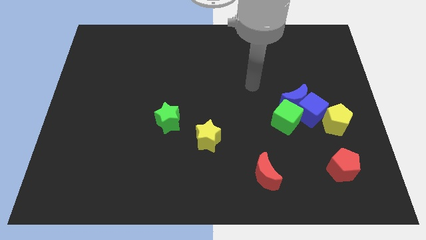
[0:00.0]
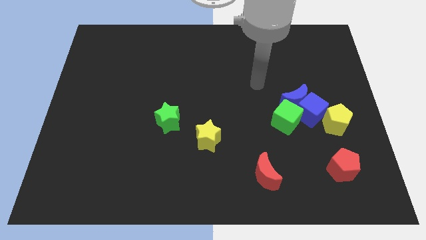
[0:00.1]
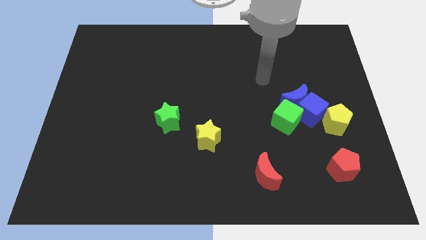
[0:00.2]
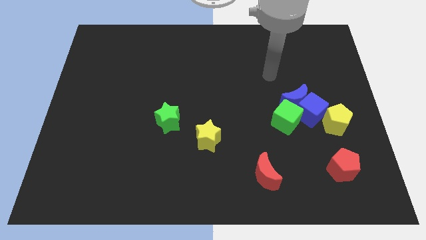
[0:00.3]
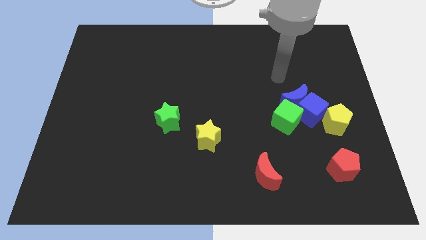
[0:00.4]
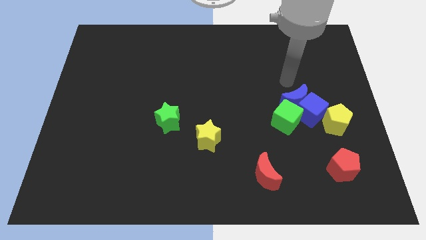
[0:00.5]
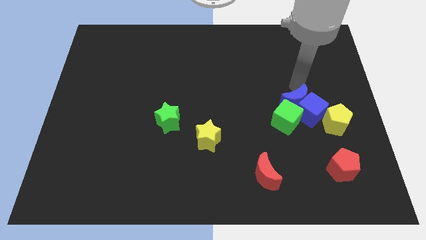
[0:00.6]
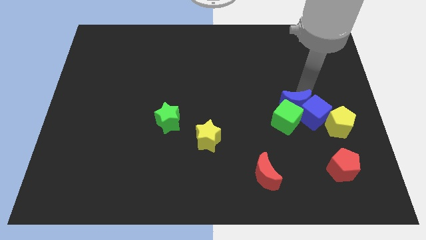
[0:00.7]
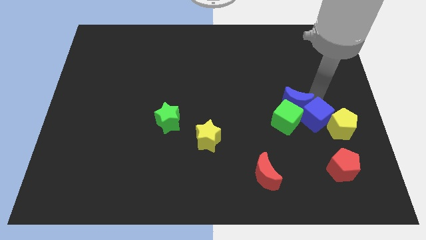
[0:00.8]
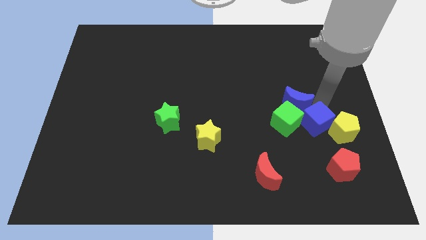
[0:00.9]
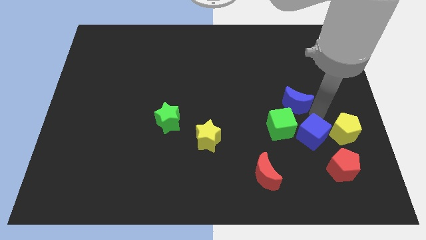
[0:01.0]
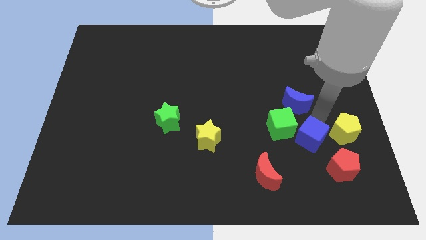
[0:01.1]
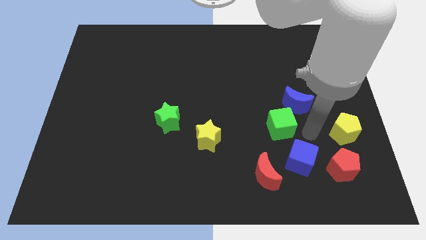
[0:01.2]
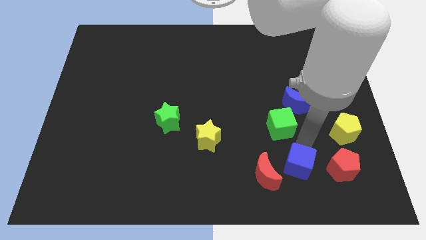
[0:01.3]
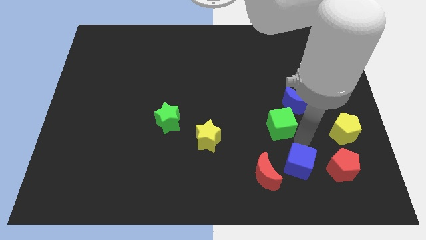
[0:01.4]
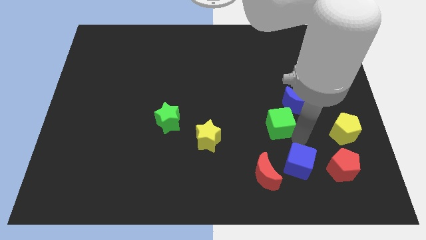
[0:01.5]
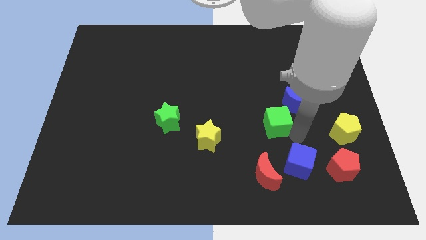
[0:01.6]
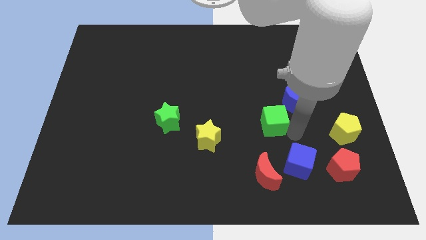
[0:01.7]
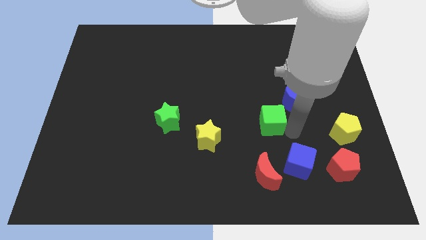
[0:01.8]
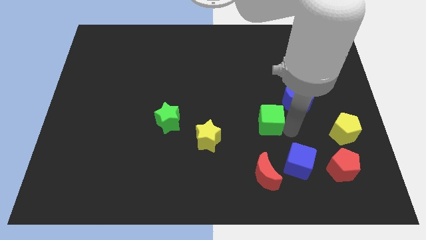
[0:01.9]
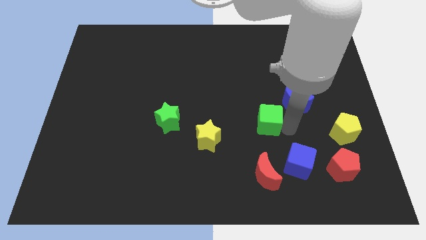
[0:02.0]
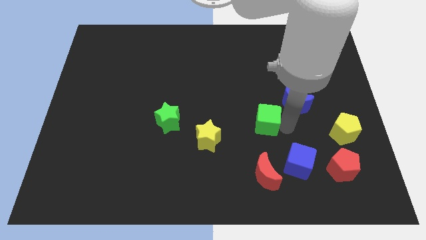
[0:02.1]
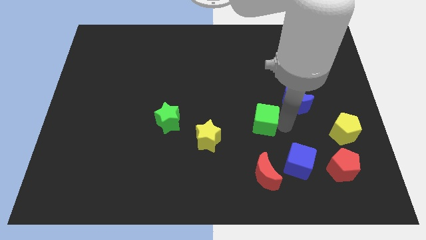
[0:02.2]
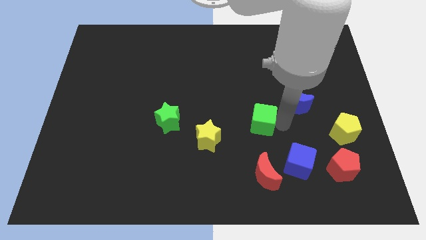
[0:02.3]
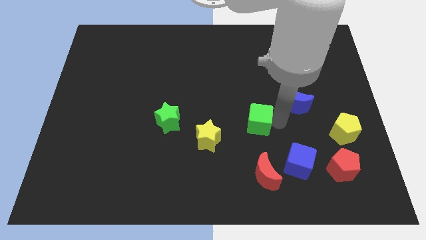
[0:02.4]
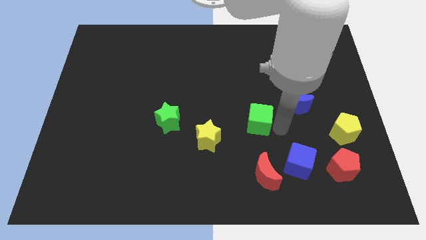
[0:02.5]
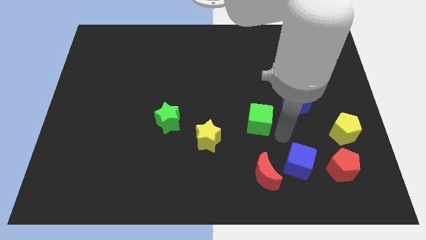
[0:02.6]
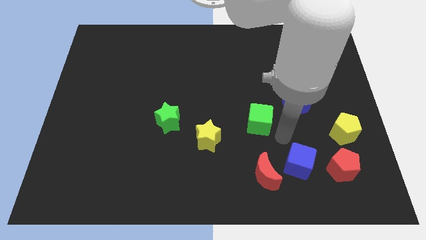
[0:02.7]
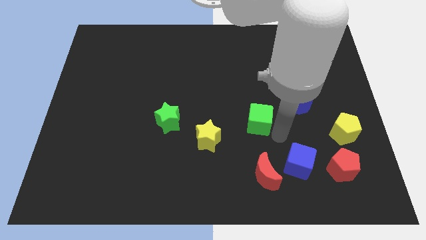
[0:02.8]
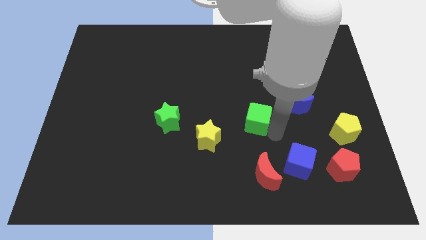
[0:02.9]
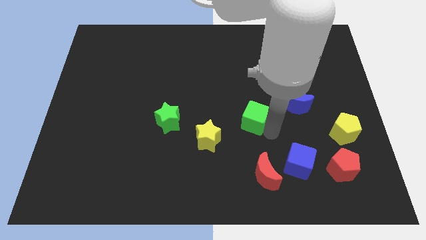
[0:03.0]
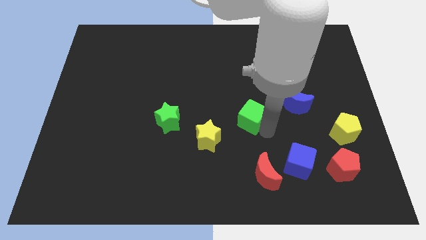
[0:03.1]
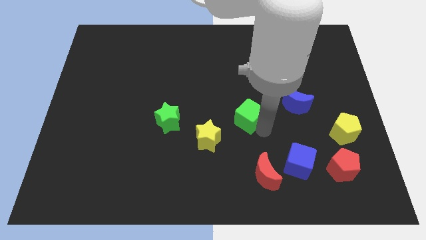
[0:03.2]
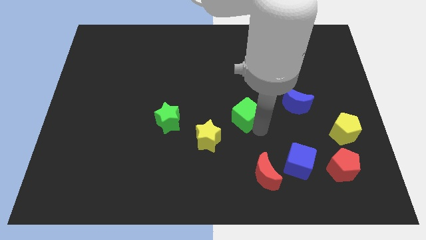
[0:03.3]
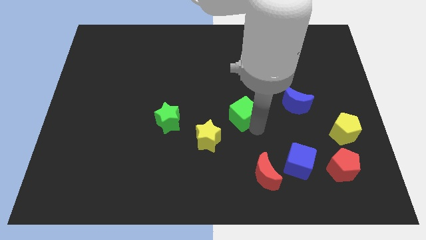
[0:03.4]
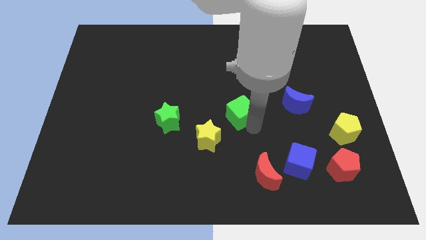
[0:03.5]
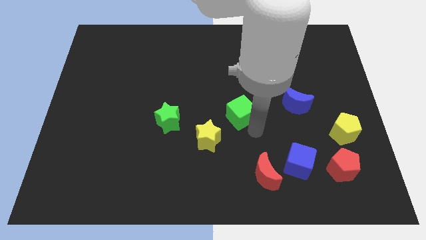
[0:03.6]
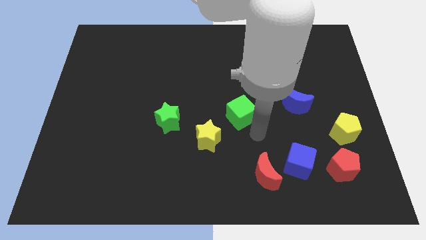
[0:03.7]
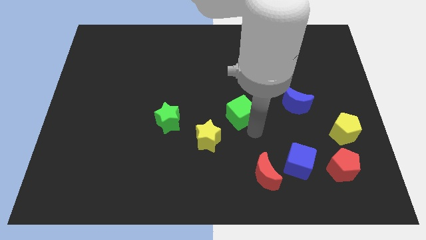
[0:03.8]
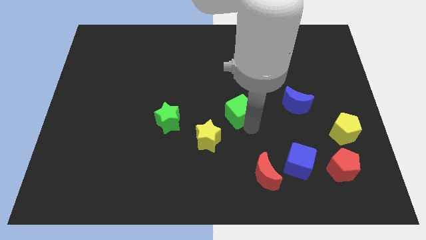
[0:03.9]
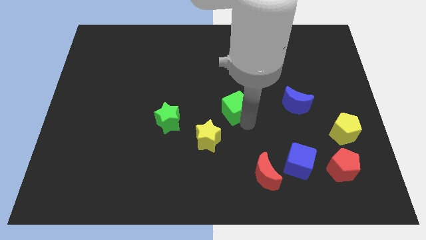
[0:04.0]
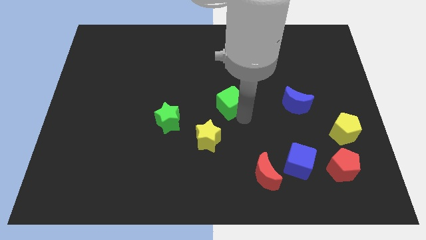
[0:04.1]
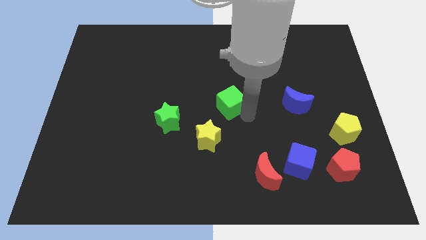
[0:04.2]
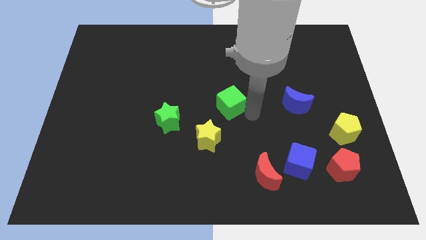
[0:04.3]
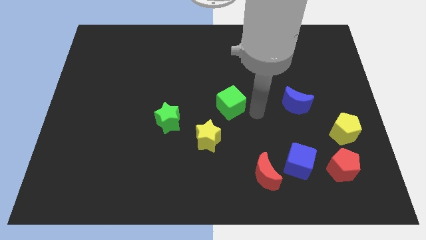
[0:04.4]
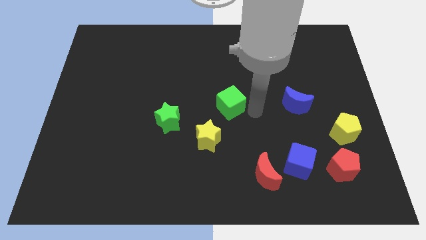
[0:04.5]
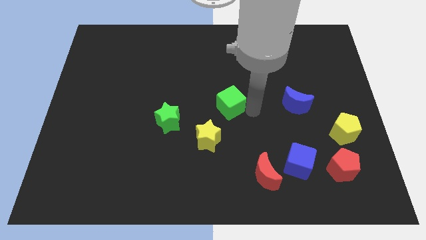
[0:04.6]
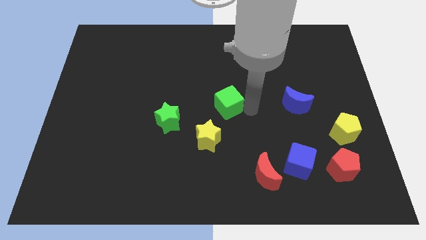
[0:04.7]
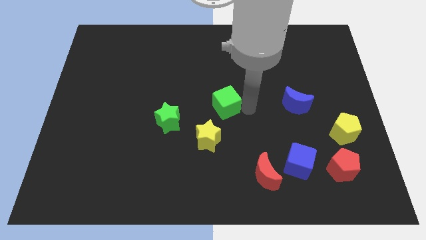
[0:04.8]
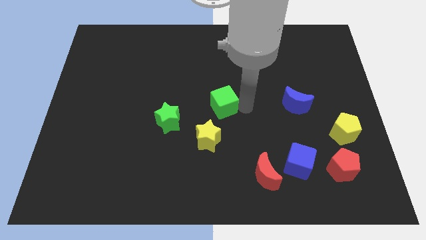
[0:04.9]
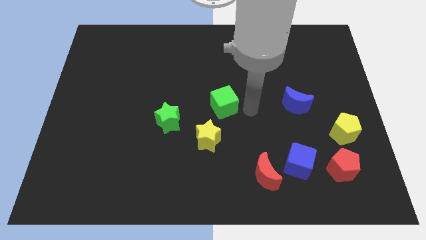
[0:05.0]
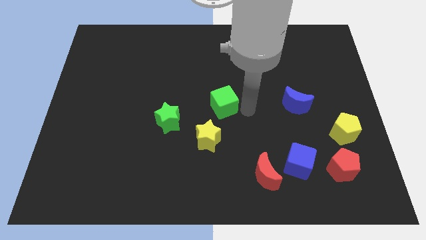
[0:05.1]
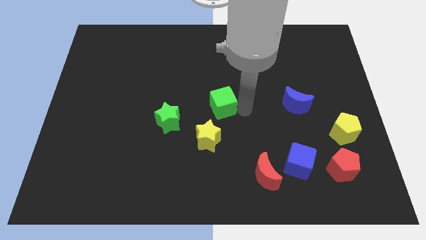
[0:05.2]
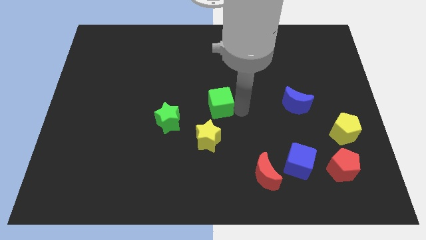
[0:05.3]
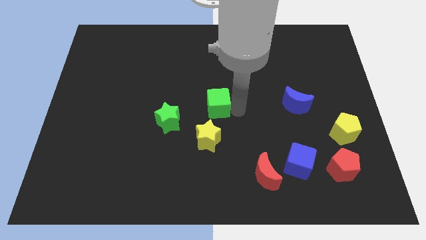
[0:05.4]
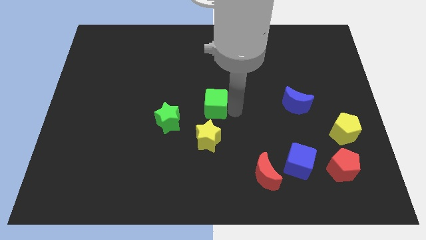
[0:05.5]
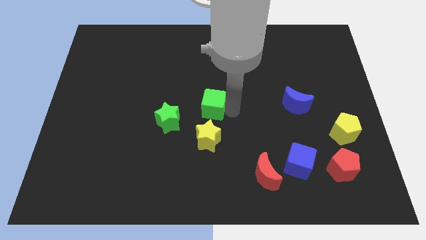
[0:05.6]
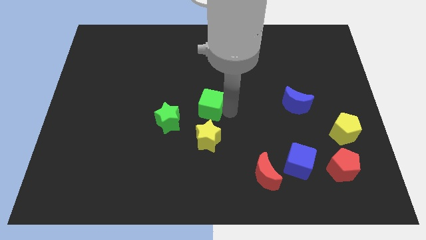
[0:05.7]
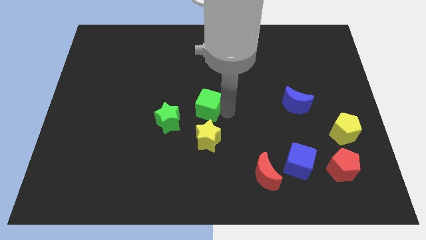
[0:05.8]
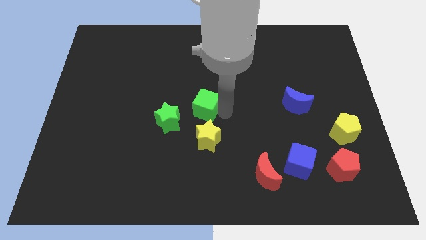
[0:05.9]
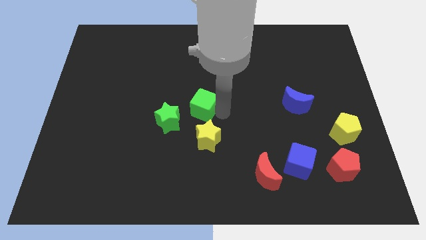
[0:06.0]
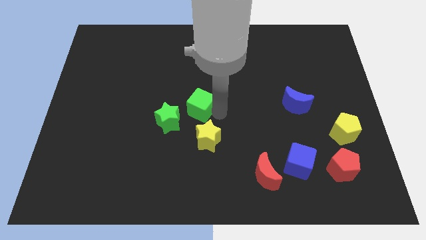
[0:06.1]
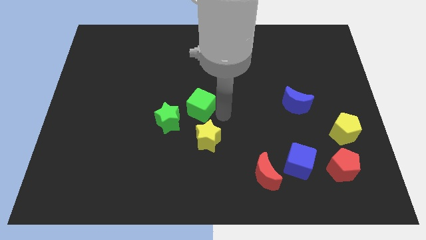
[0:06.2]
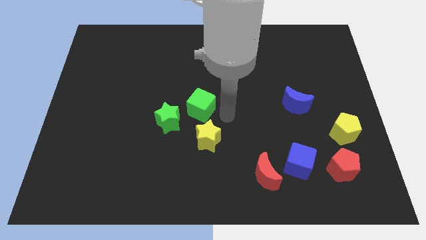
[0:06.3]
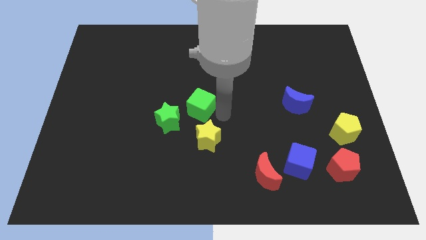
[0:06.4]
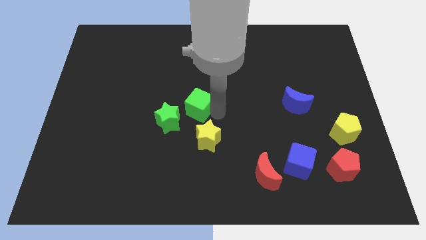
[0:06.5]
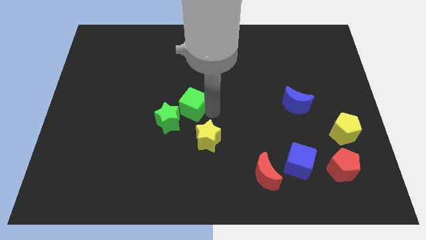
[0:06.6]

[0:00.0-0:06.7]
push the green cube to the left

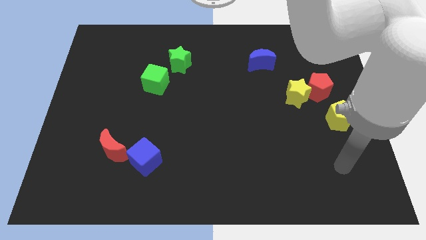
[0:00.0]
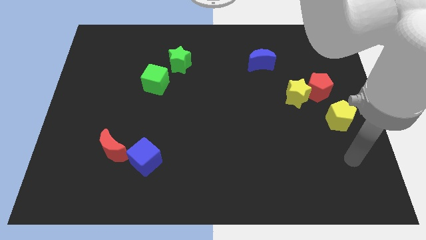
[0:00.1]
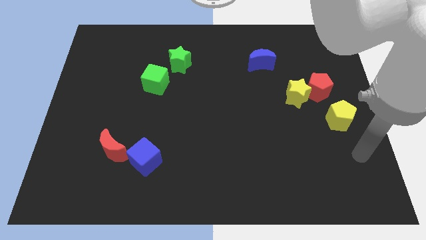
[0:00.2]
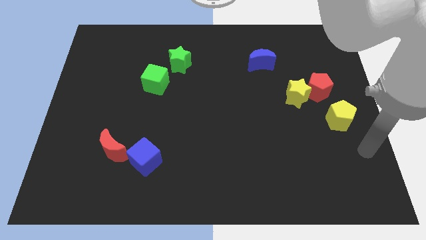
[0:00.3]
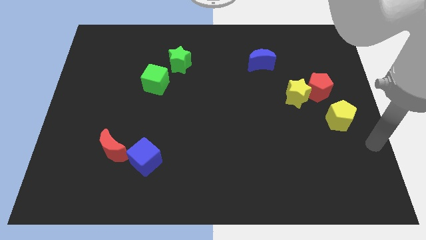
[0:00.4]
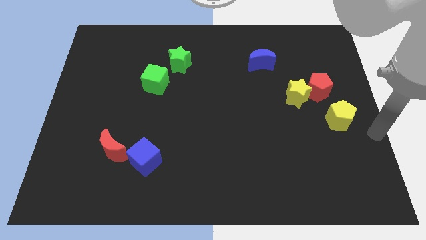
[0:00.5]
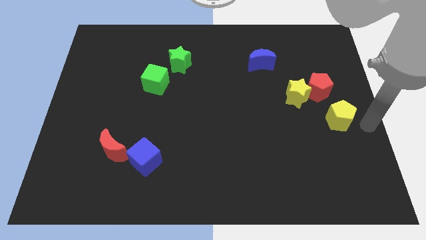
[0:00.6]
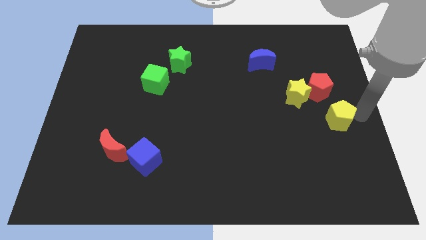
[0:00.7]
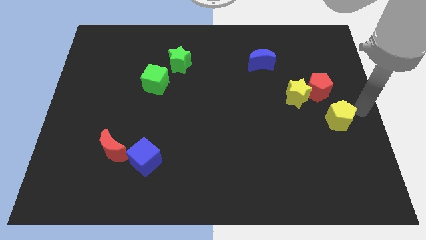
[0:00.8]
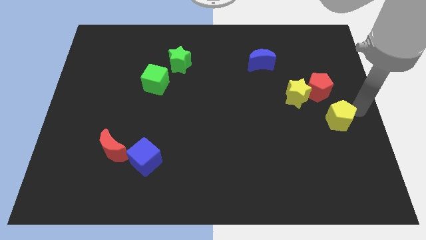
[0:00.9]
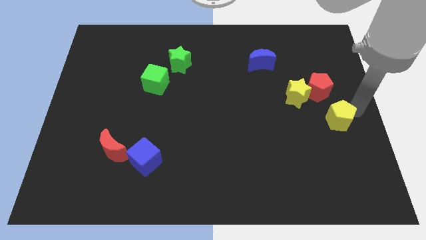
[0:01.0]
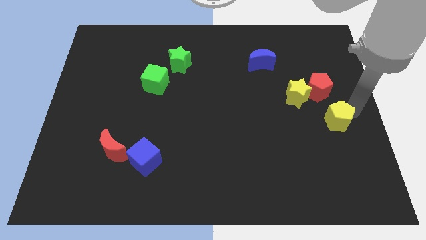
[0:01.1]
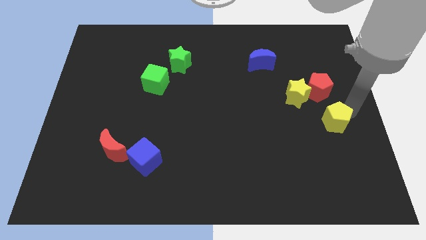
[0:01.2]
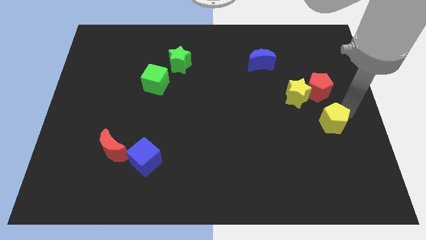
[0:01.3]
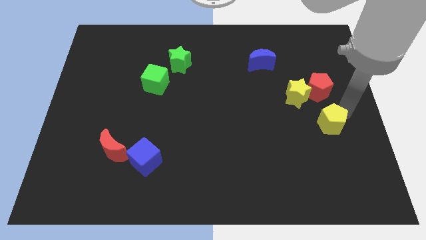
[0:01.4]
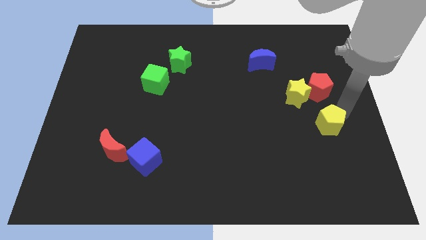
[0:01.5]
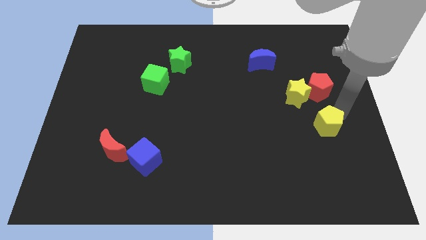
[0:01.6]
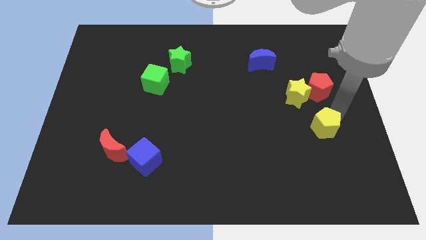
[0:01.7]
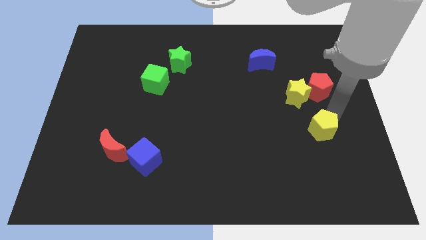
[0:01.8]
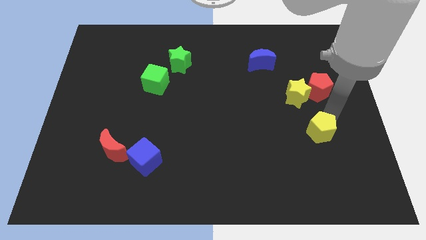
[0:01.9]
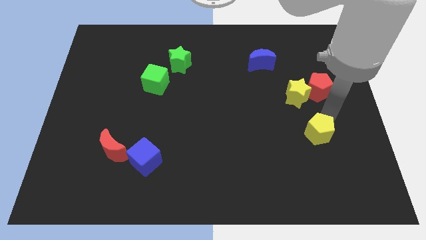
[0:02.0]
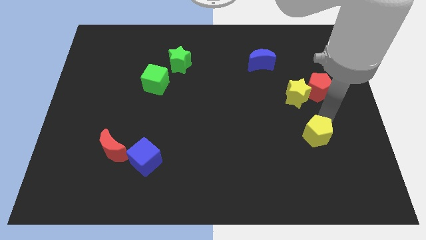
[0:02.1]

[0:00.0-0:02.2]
push the yellow pentagon diagonally down and to the left a bit
